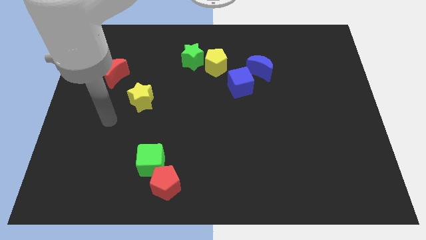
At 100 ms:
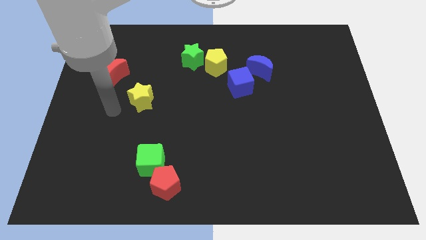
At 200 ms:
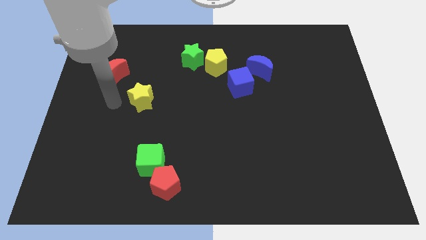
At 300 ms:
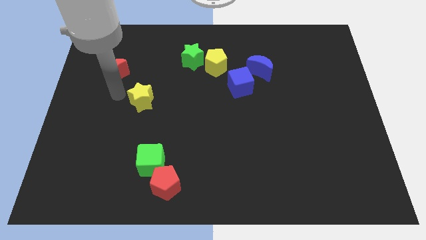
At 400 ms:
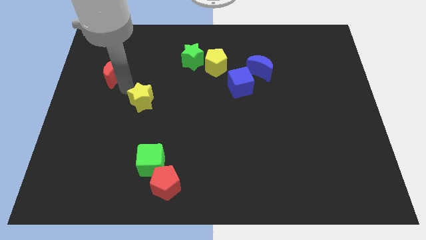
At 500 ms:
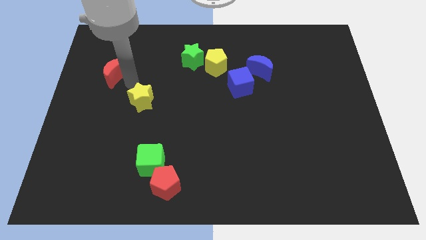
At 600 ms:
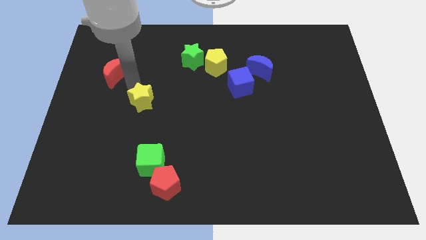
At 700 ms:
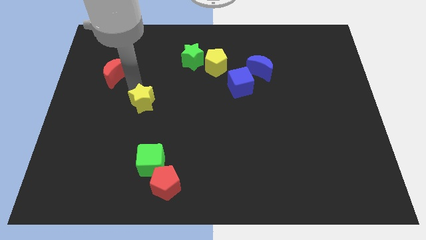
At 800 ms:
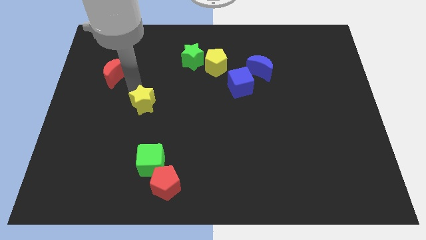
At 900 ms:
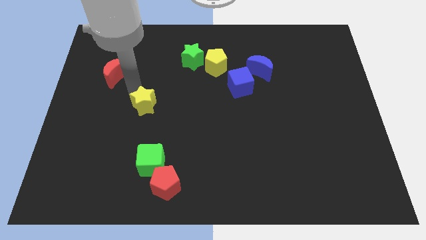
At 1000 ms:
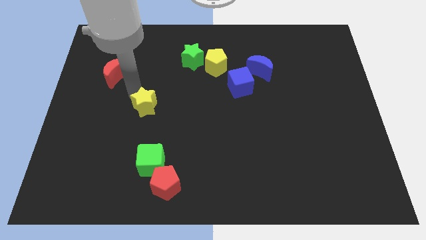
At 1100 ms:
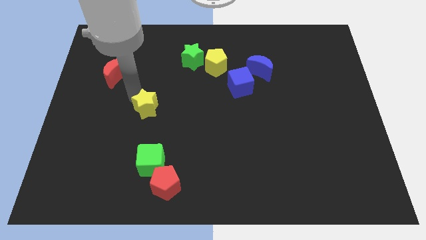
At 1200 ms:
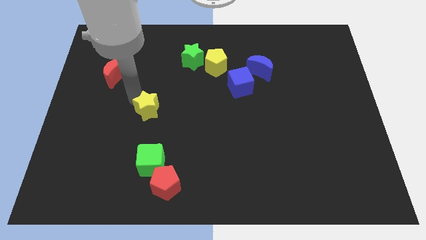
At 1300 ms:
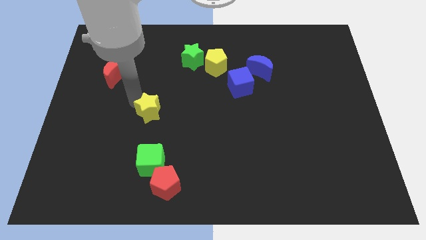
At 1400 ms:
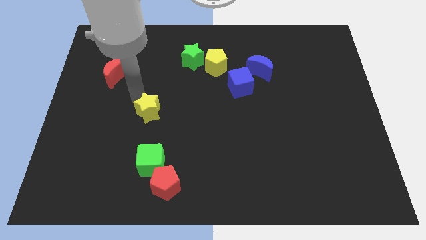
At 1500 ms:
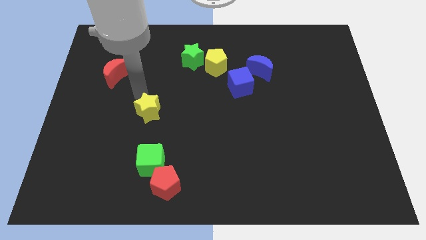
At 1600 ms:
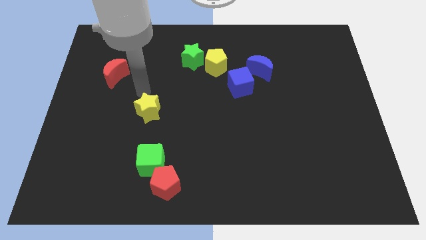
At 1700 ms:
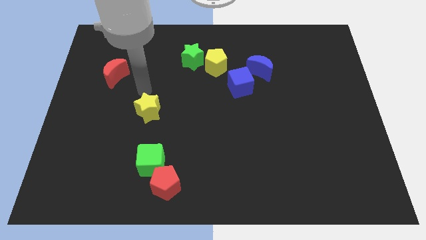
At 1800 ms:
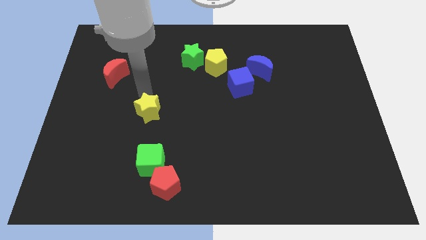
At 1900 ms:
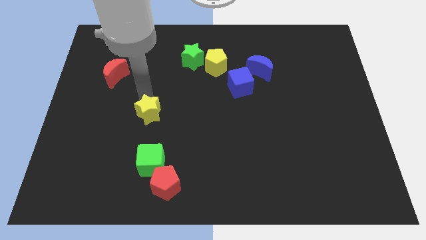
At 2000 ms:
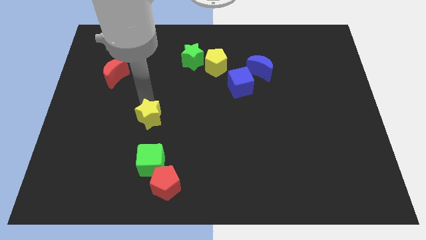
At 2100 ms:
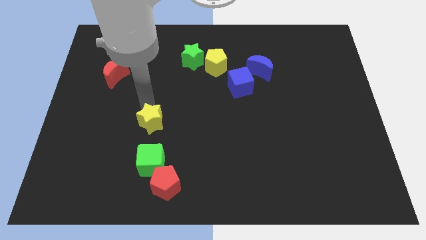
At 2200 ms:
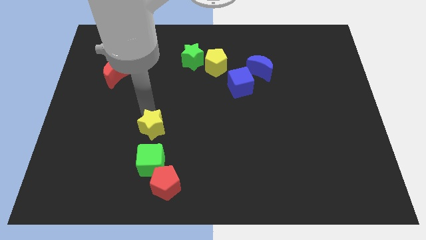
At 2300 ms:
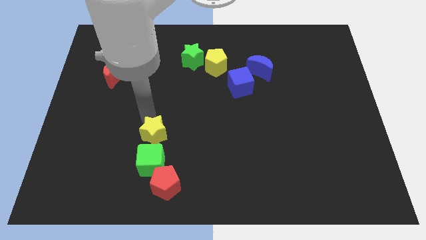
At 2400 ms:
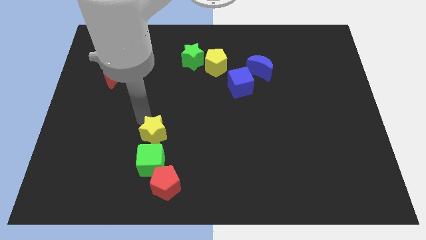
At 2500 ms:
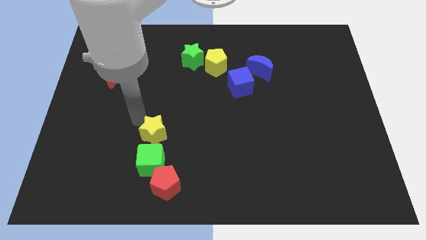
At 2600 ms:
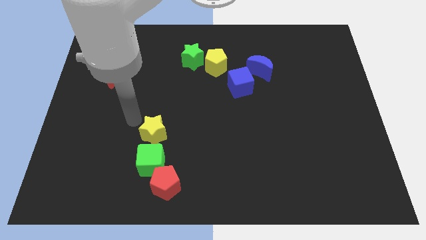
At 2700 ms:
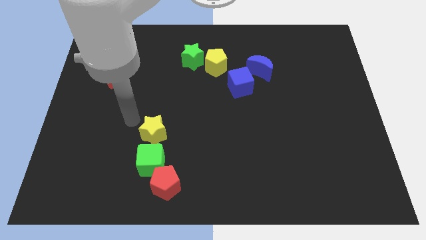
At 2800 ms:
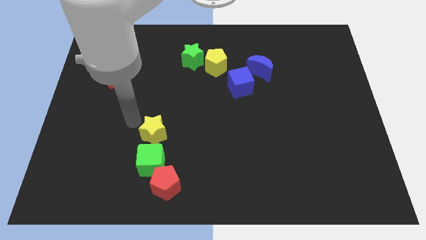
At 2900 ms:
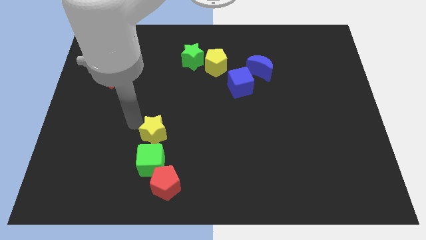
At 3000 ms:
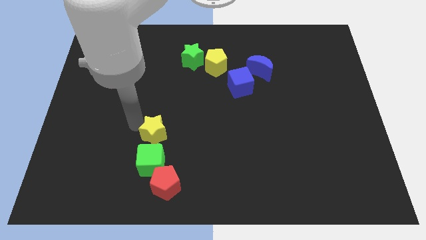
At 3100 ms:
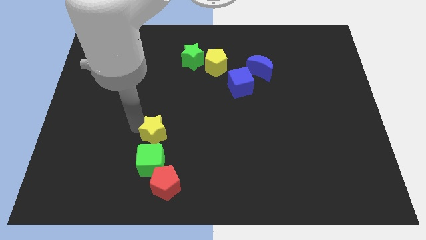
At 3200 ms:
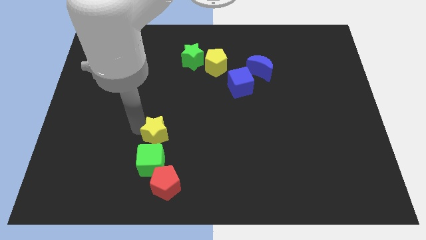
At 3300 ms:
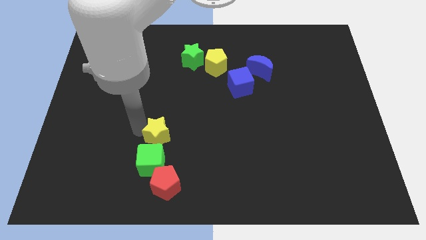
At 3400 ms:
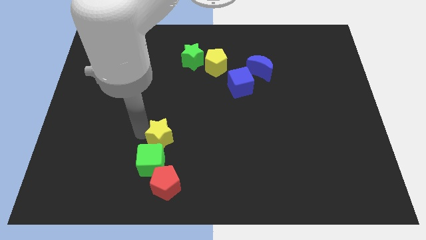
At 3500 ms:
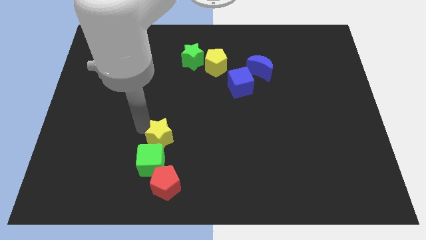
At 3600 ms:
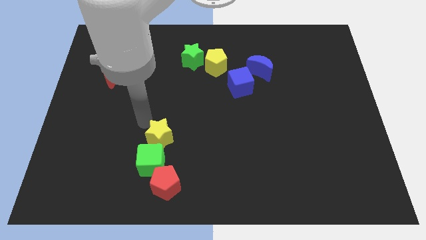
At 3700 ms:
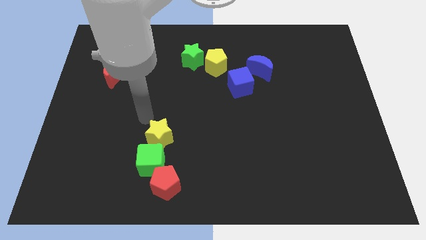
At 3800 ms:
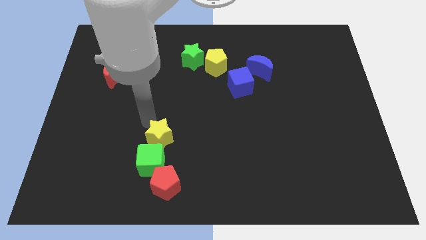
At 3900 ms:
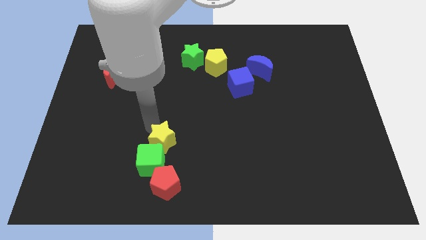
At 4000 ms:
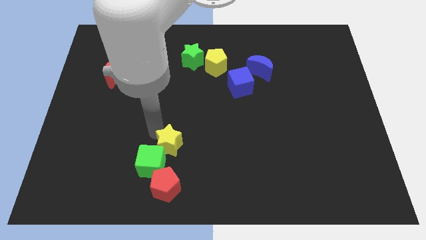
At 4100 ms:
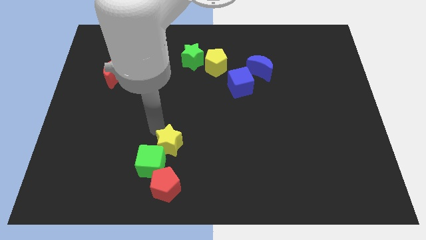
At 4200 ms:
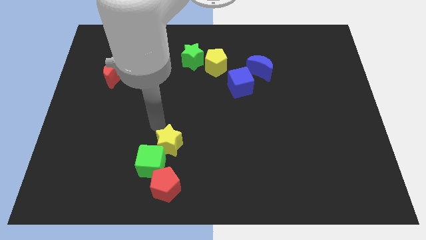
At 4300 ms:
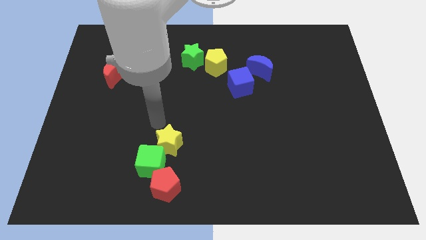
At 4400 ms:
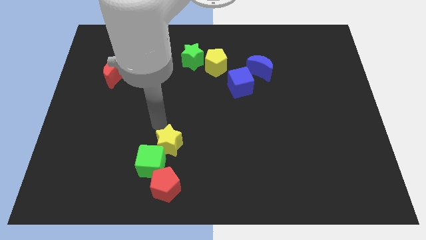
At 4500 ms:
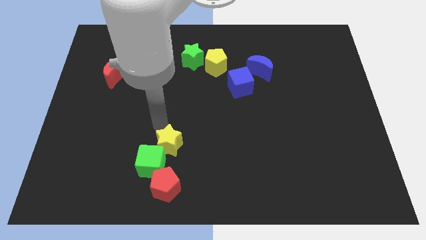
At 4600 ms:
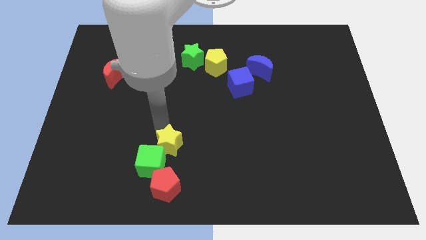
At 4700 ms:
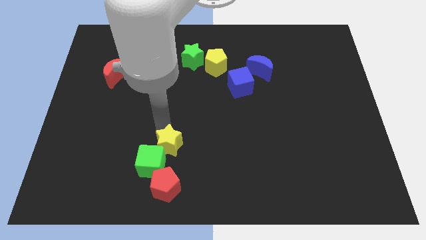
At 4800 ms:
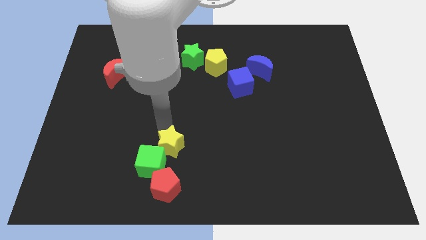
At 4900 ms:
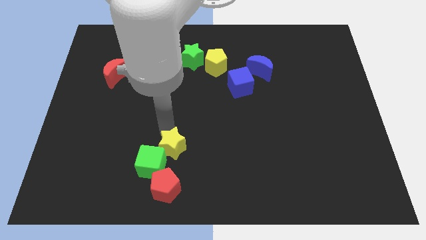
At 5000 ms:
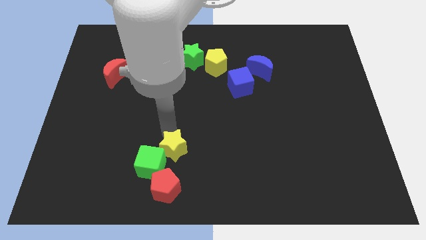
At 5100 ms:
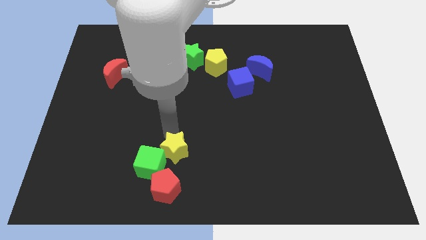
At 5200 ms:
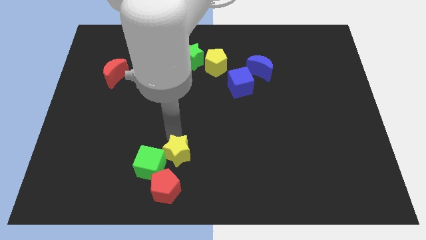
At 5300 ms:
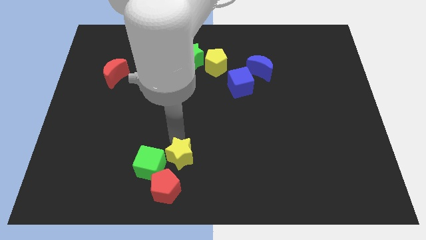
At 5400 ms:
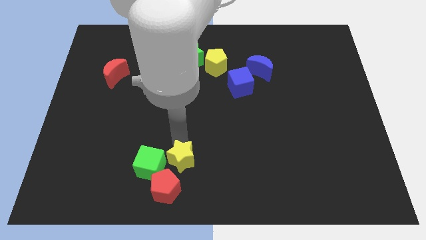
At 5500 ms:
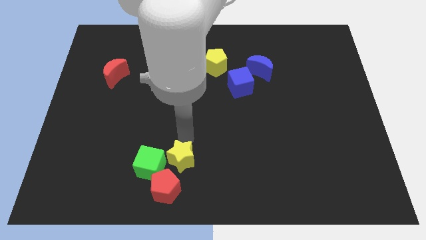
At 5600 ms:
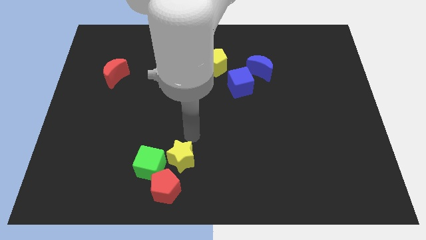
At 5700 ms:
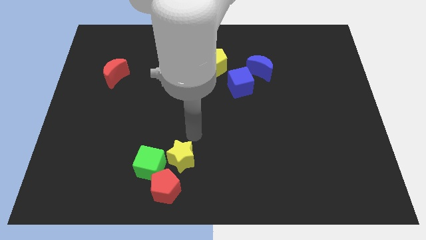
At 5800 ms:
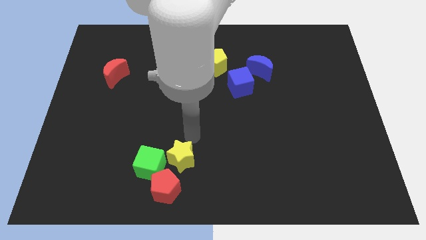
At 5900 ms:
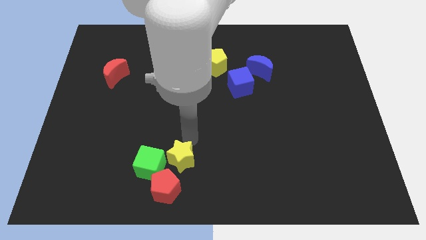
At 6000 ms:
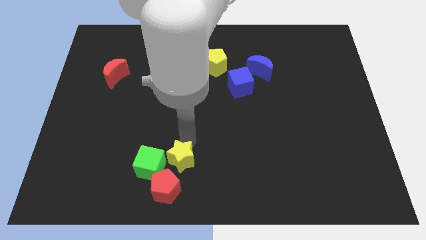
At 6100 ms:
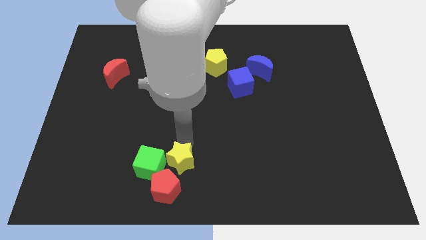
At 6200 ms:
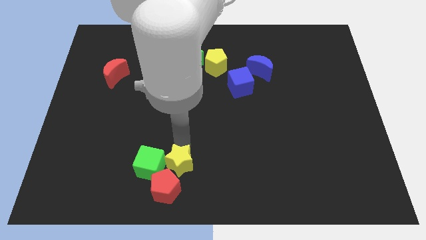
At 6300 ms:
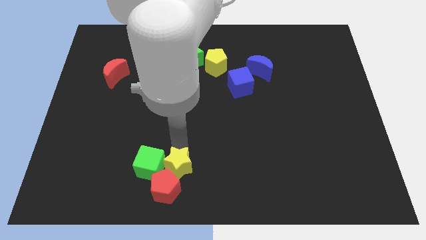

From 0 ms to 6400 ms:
move the yellow star next to the red pentagon

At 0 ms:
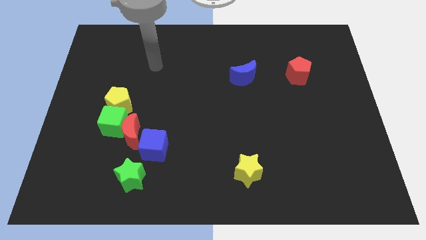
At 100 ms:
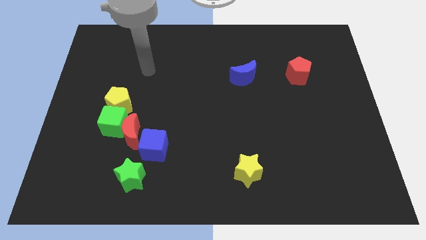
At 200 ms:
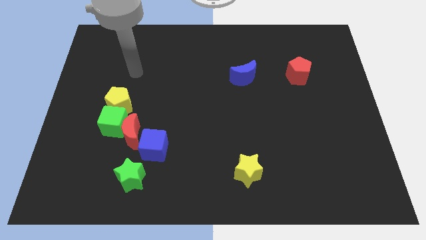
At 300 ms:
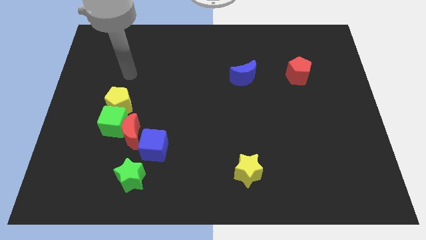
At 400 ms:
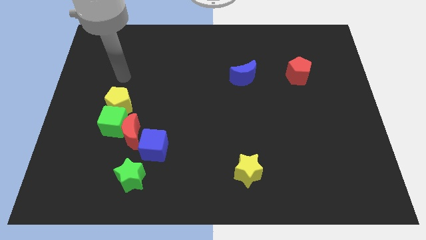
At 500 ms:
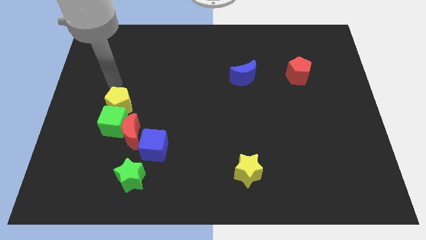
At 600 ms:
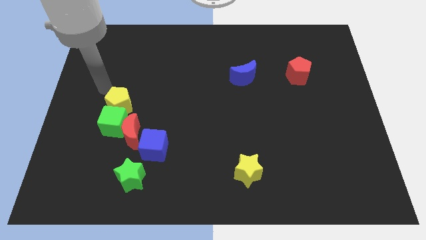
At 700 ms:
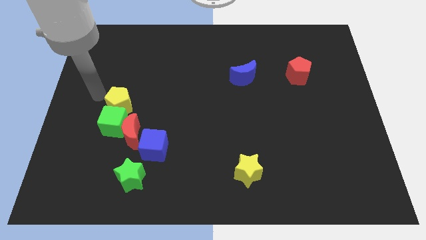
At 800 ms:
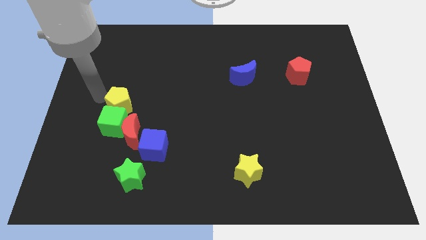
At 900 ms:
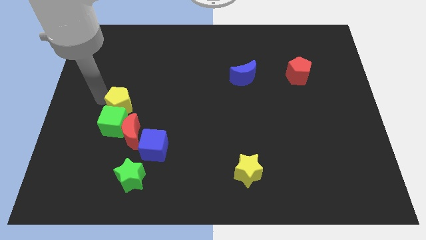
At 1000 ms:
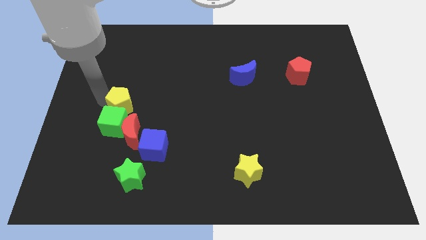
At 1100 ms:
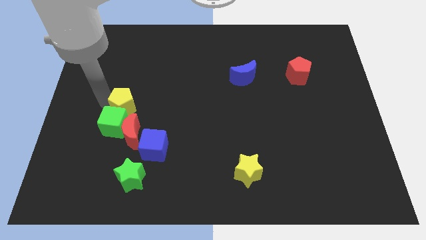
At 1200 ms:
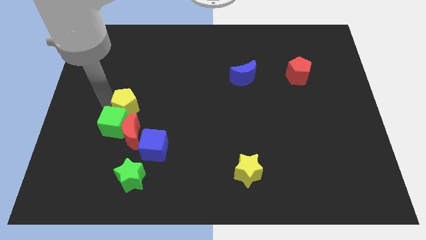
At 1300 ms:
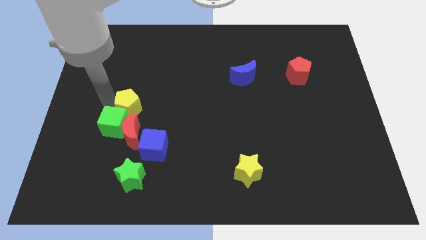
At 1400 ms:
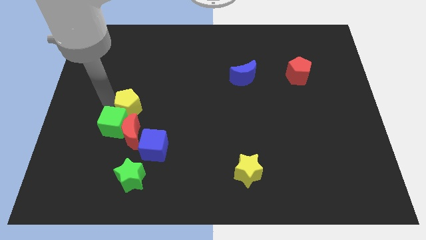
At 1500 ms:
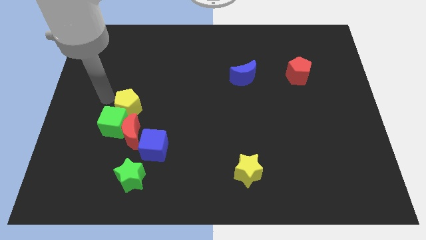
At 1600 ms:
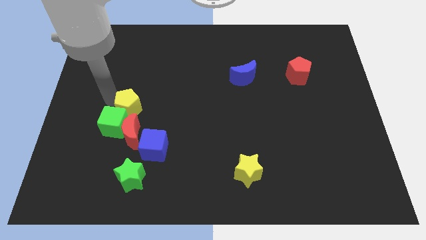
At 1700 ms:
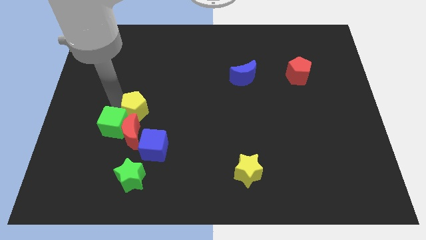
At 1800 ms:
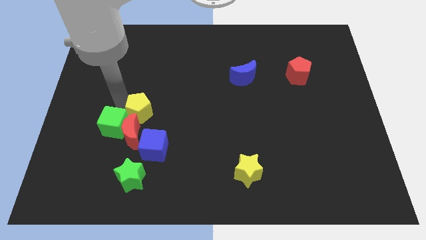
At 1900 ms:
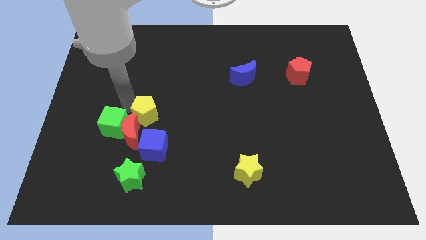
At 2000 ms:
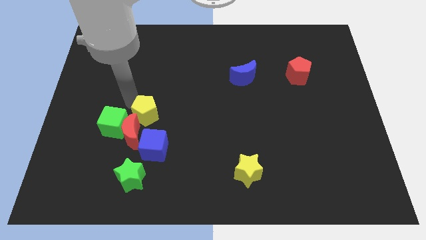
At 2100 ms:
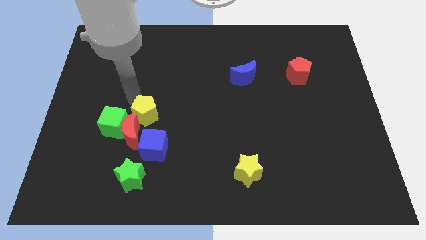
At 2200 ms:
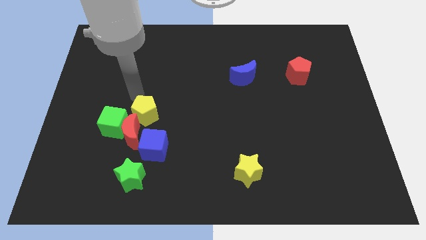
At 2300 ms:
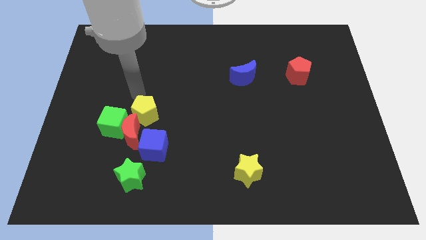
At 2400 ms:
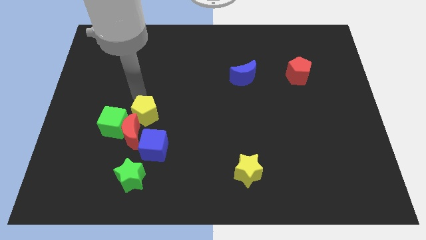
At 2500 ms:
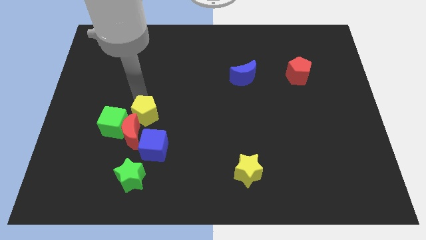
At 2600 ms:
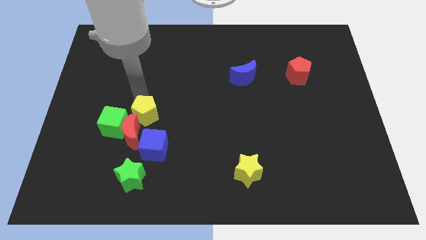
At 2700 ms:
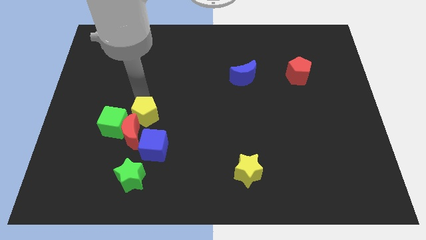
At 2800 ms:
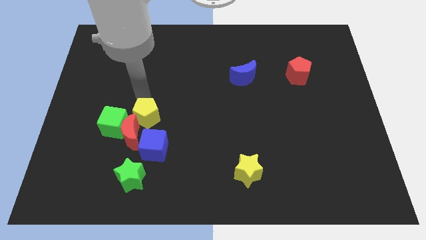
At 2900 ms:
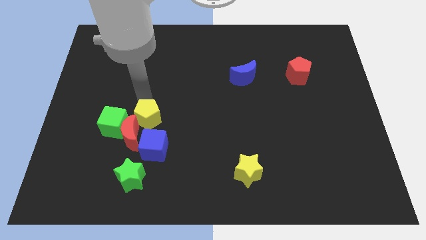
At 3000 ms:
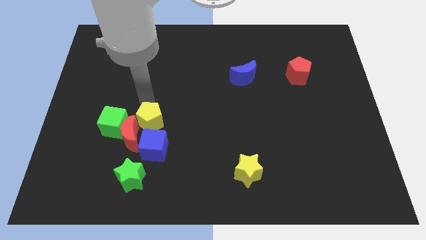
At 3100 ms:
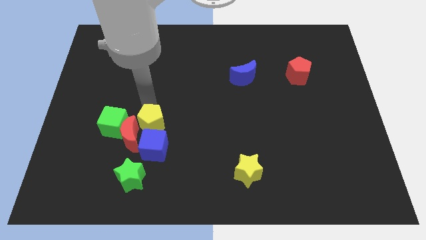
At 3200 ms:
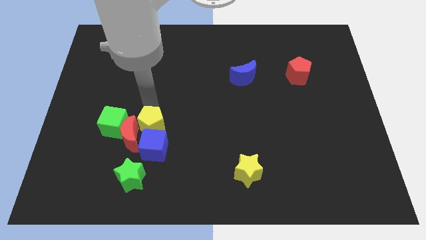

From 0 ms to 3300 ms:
move the yellow pentagon to the blue cube
